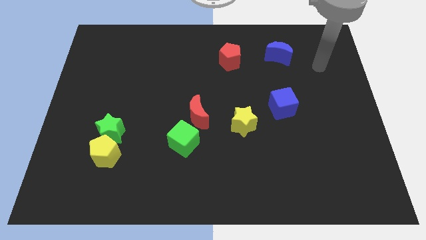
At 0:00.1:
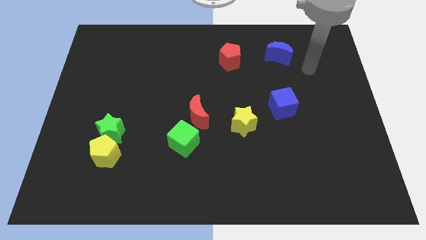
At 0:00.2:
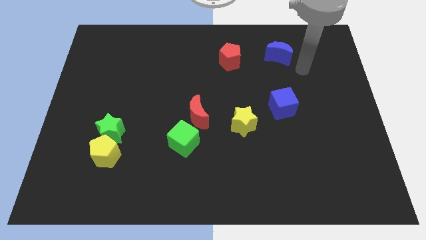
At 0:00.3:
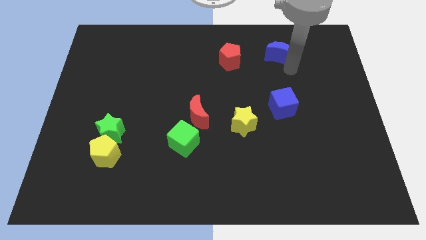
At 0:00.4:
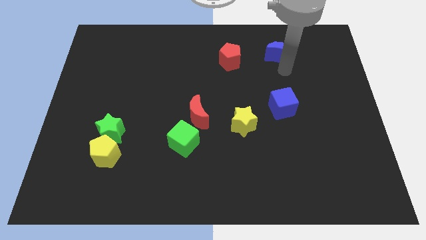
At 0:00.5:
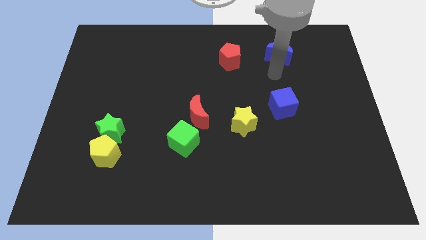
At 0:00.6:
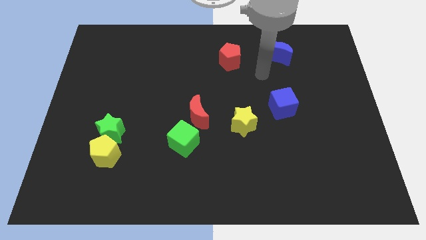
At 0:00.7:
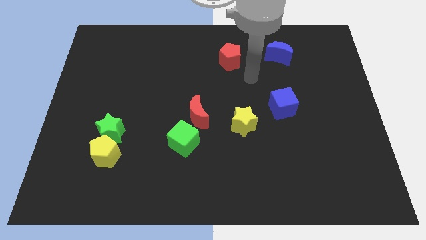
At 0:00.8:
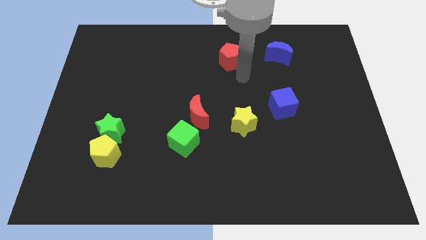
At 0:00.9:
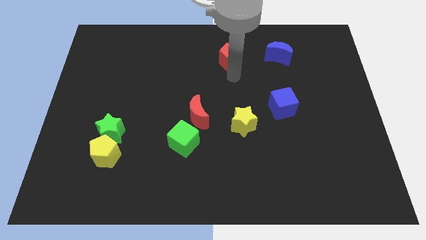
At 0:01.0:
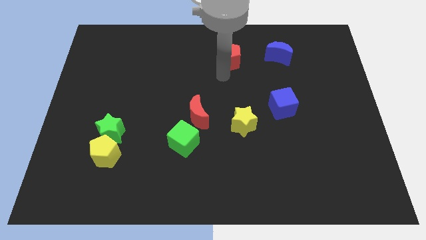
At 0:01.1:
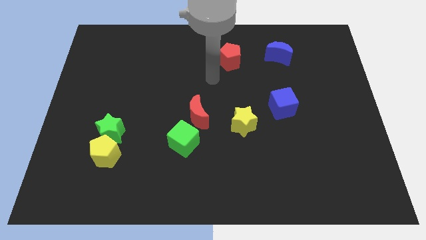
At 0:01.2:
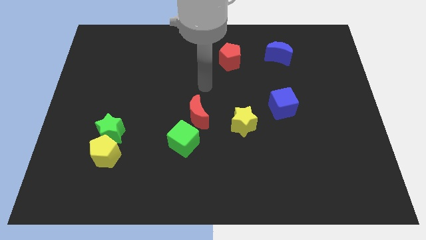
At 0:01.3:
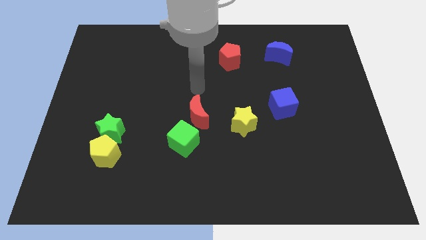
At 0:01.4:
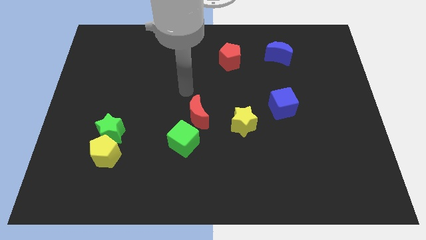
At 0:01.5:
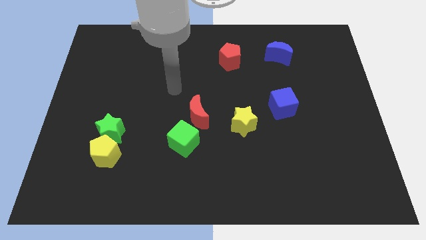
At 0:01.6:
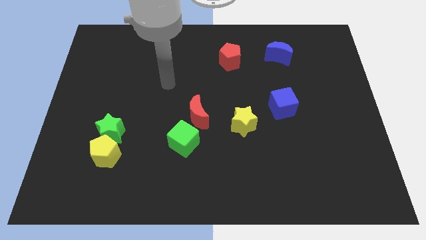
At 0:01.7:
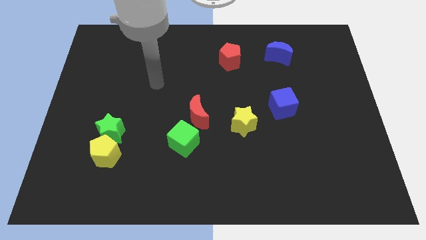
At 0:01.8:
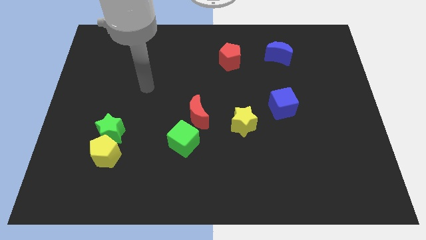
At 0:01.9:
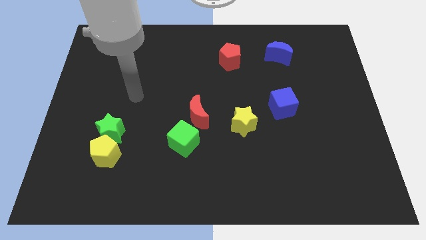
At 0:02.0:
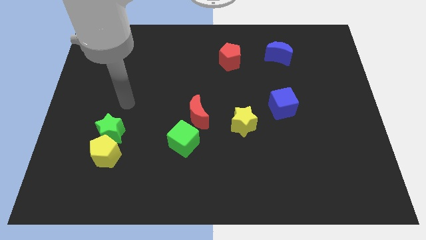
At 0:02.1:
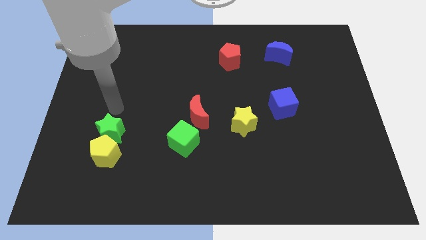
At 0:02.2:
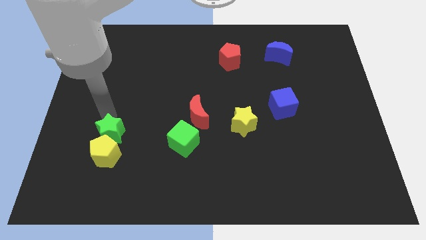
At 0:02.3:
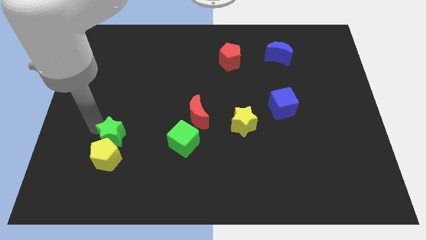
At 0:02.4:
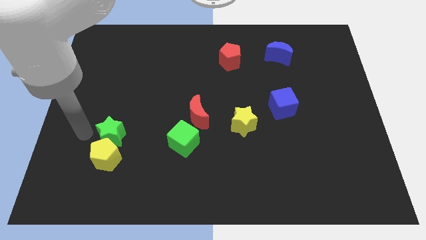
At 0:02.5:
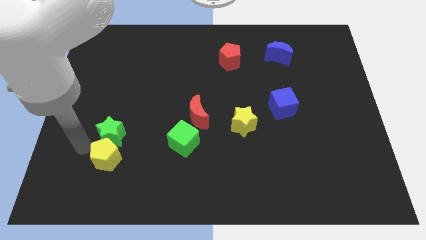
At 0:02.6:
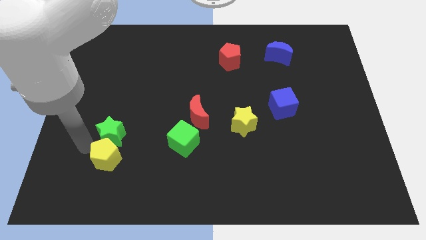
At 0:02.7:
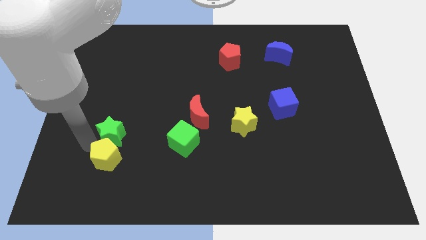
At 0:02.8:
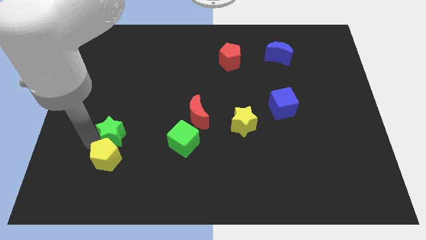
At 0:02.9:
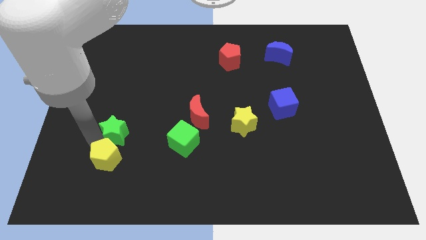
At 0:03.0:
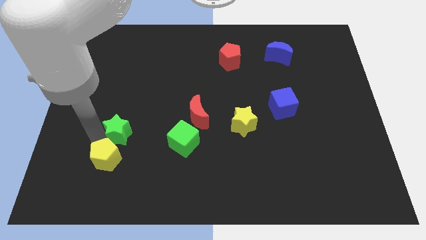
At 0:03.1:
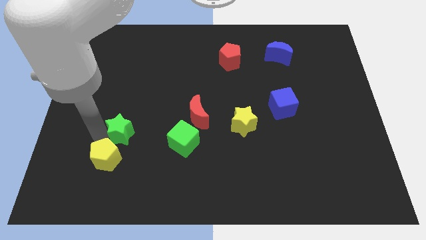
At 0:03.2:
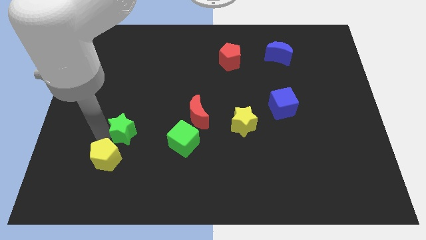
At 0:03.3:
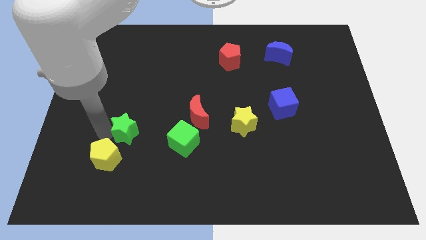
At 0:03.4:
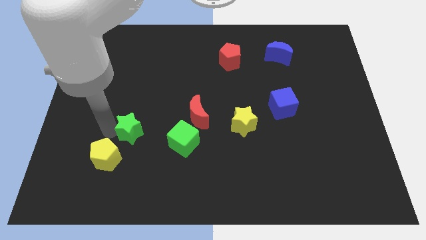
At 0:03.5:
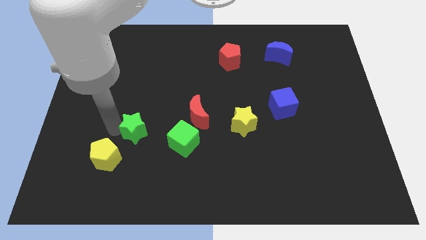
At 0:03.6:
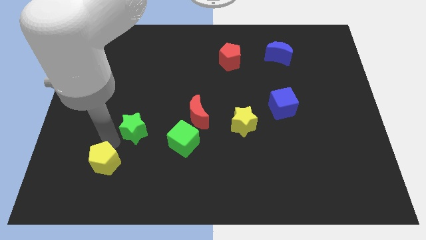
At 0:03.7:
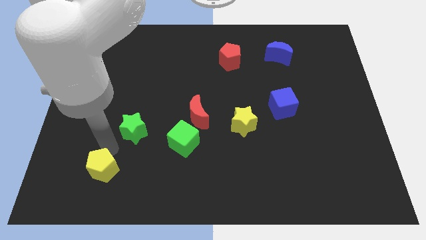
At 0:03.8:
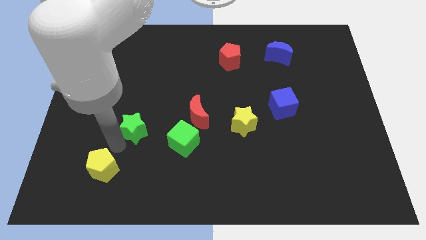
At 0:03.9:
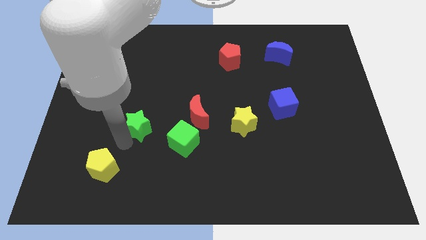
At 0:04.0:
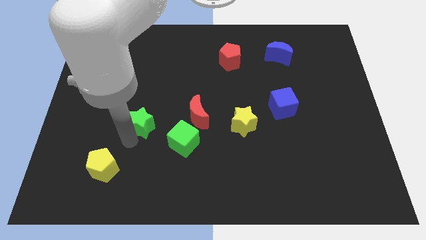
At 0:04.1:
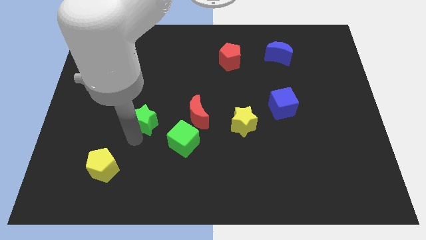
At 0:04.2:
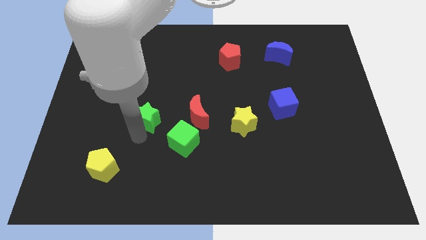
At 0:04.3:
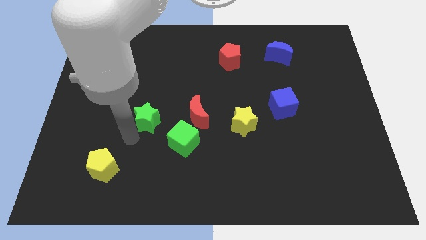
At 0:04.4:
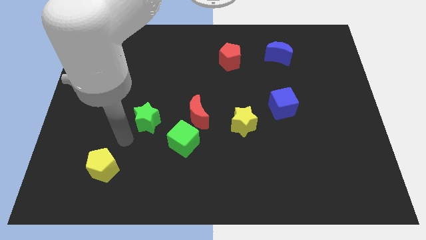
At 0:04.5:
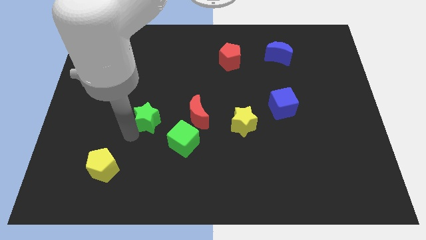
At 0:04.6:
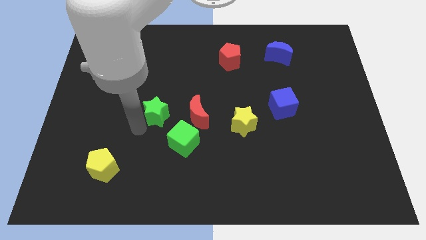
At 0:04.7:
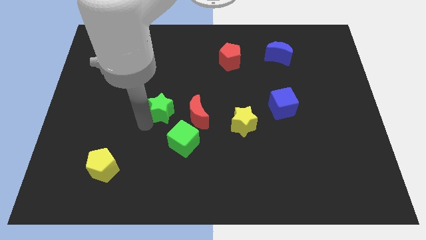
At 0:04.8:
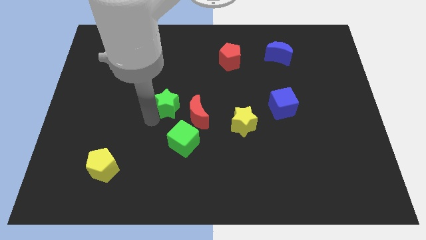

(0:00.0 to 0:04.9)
slide the green star diagonally up and to the left of the red moon

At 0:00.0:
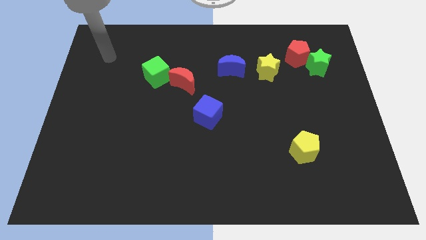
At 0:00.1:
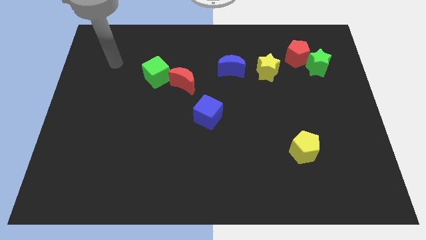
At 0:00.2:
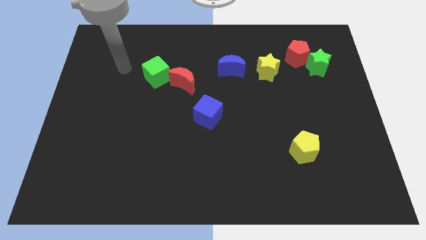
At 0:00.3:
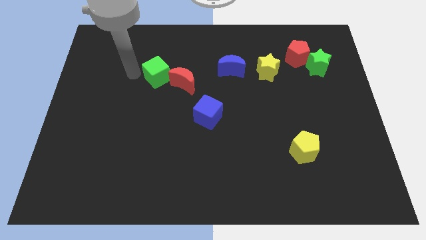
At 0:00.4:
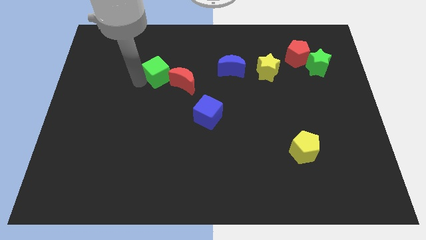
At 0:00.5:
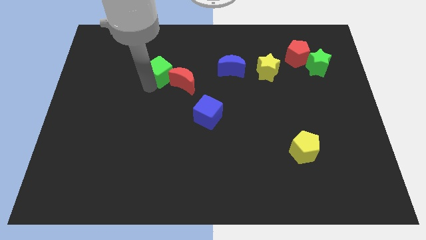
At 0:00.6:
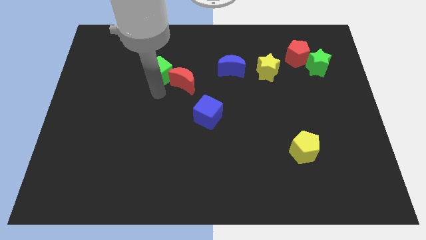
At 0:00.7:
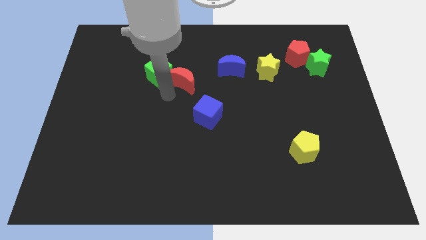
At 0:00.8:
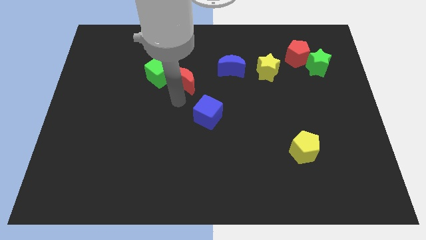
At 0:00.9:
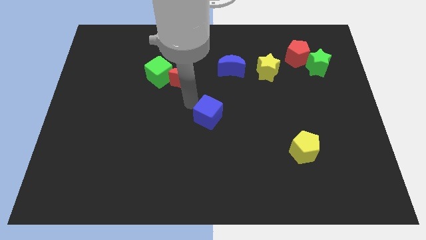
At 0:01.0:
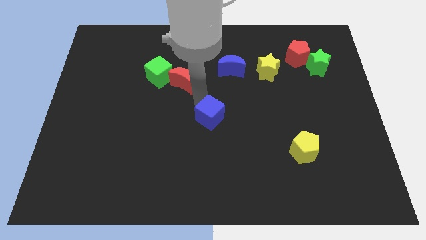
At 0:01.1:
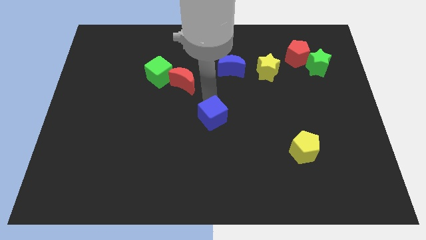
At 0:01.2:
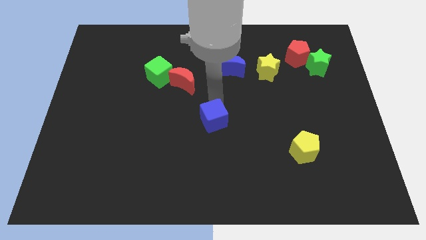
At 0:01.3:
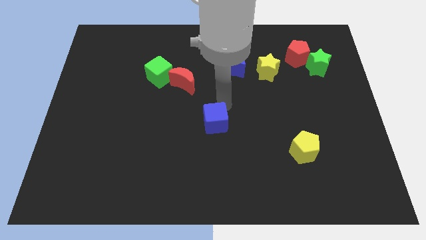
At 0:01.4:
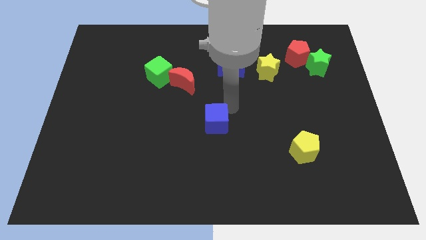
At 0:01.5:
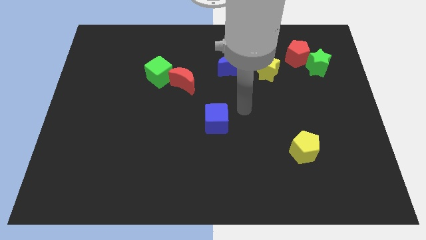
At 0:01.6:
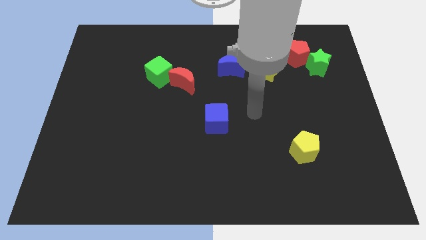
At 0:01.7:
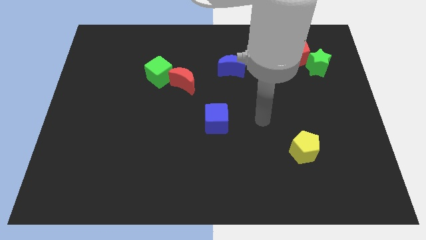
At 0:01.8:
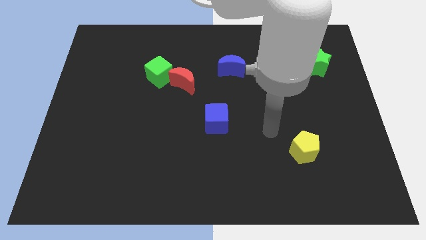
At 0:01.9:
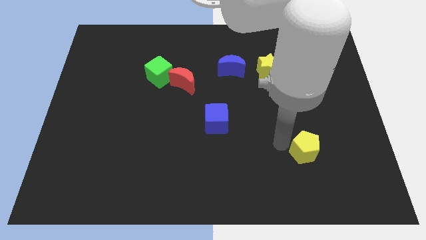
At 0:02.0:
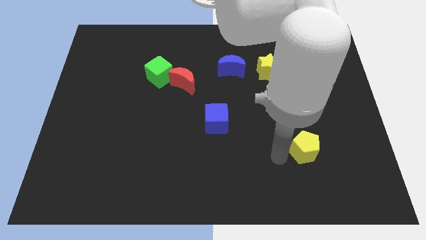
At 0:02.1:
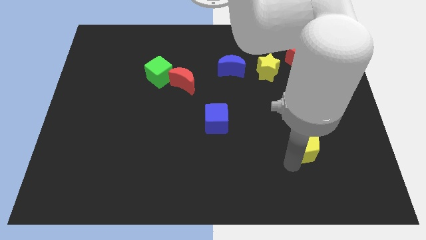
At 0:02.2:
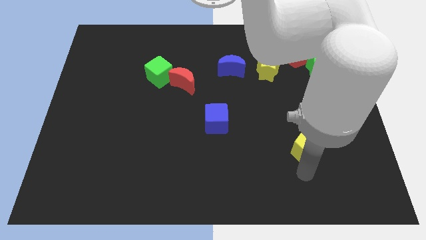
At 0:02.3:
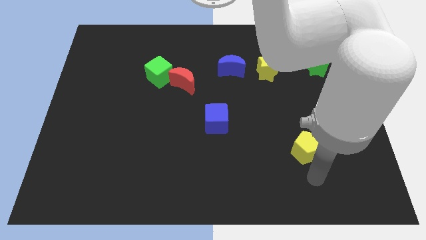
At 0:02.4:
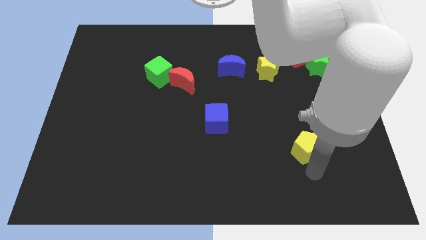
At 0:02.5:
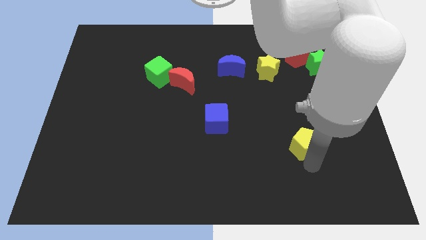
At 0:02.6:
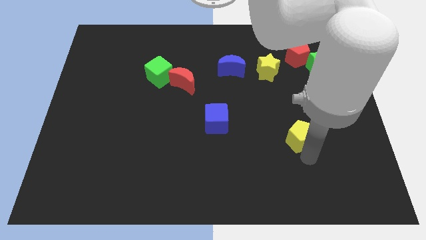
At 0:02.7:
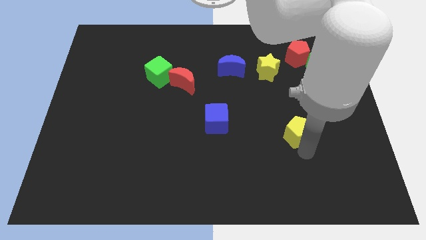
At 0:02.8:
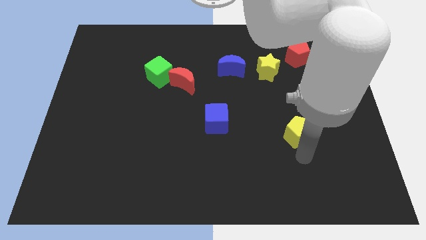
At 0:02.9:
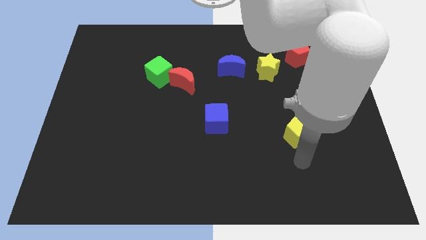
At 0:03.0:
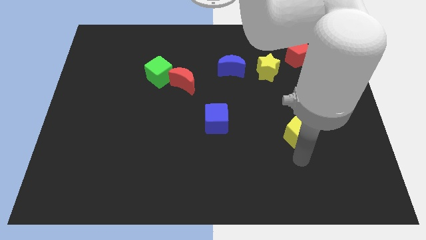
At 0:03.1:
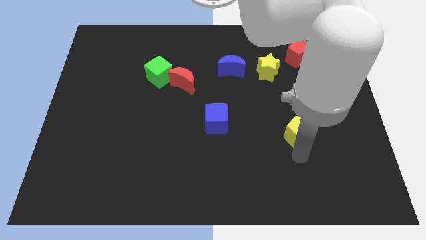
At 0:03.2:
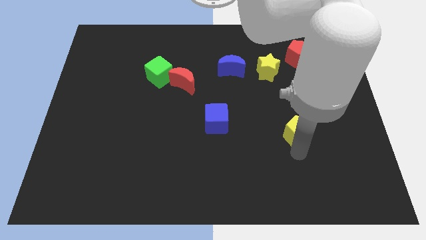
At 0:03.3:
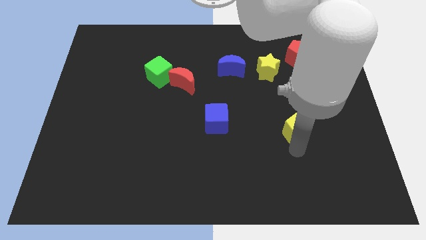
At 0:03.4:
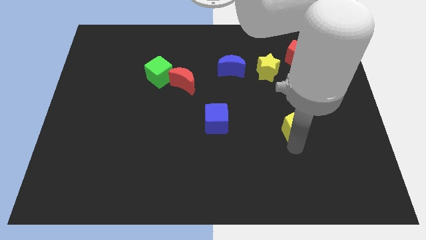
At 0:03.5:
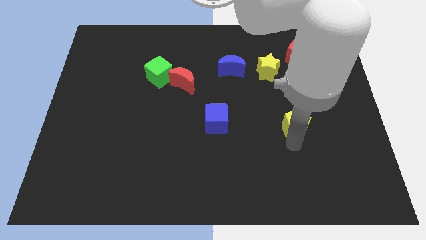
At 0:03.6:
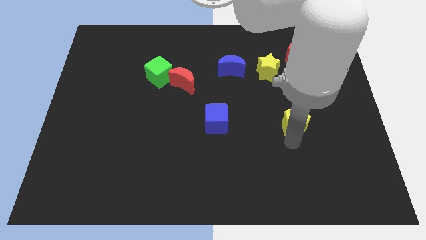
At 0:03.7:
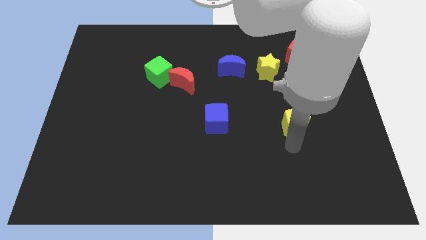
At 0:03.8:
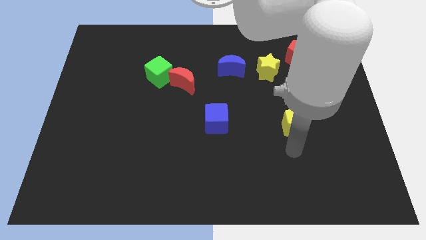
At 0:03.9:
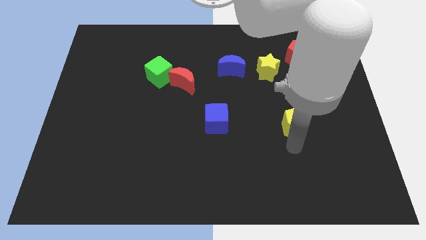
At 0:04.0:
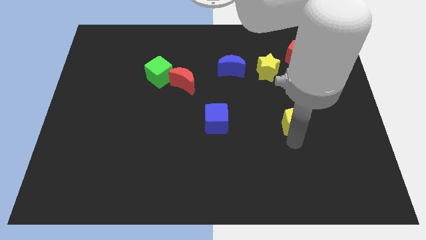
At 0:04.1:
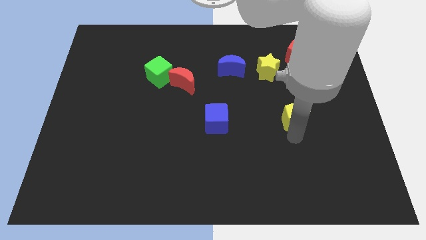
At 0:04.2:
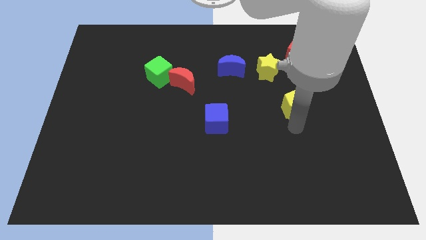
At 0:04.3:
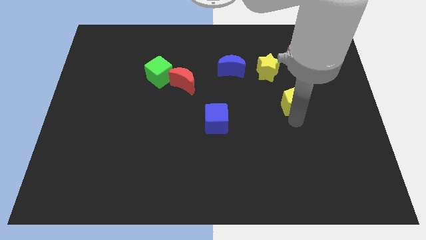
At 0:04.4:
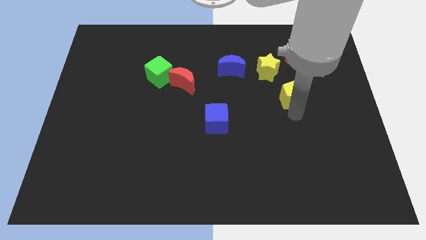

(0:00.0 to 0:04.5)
move the yellow pentagon to the bottom right side of the yellow star
